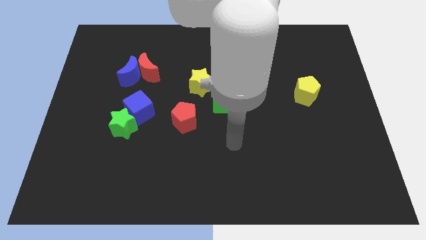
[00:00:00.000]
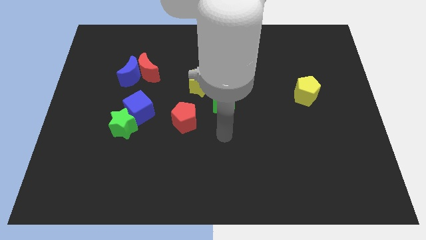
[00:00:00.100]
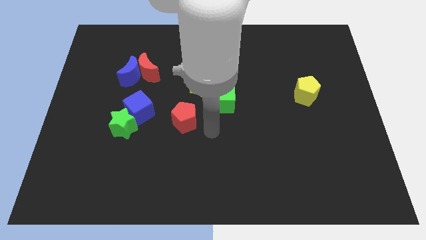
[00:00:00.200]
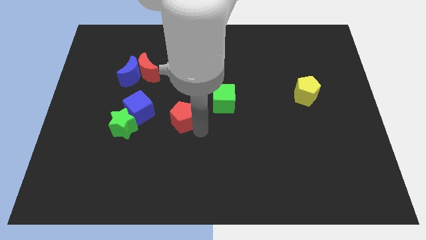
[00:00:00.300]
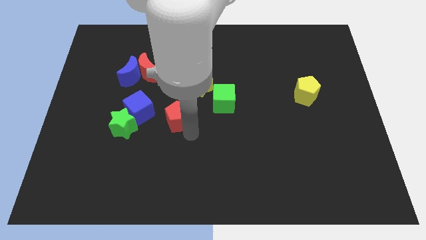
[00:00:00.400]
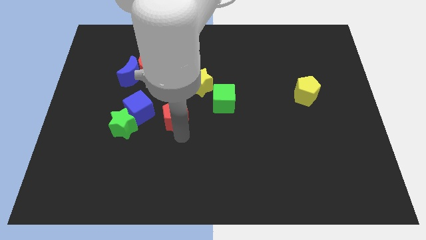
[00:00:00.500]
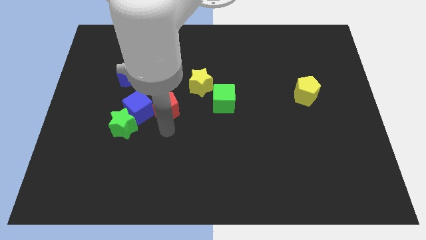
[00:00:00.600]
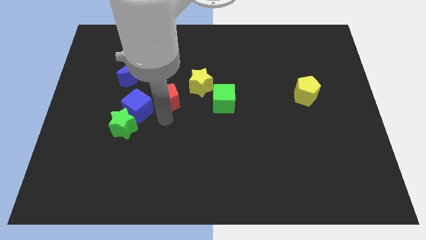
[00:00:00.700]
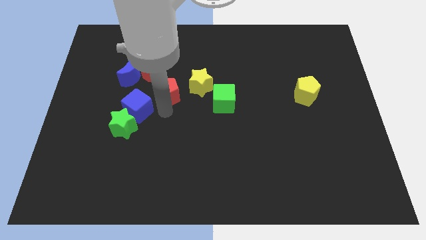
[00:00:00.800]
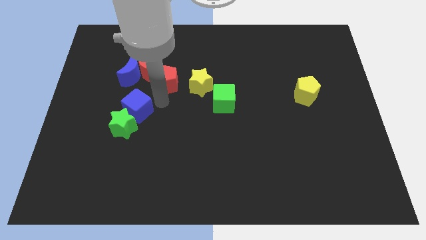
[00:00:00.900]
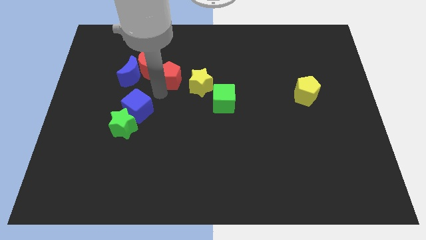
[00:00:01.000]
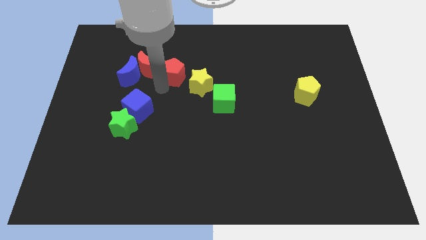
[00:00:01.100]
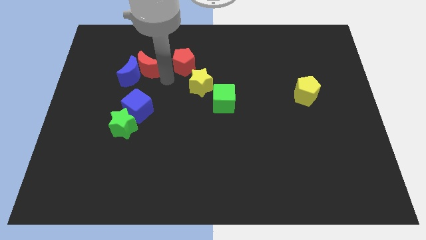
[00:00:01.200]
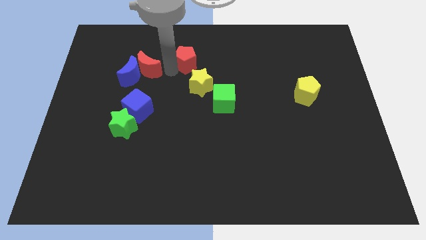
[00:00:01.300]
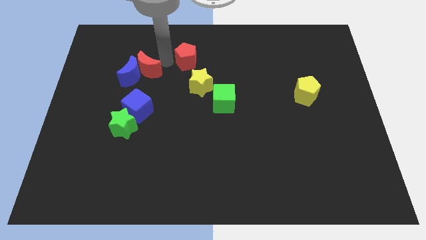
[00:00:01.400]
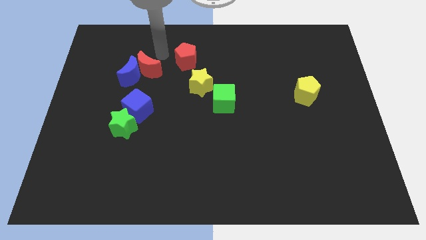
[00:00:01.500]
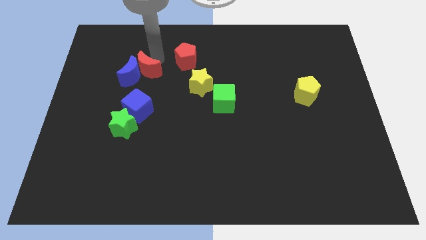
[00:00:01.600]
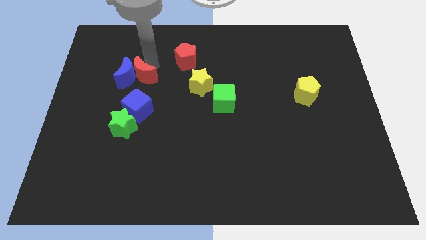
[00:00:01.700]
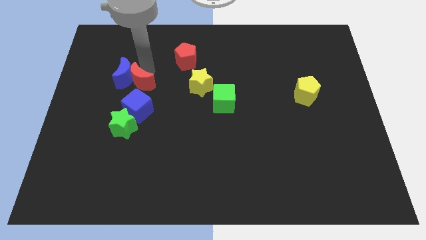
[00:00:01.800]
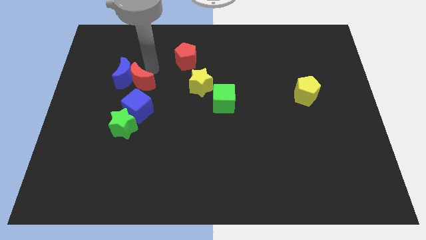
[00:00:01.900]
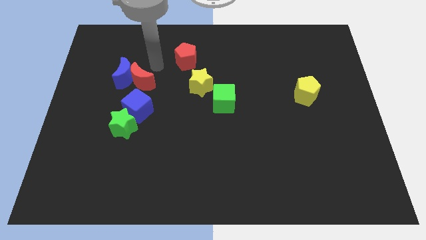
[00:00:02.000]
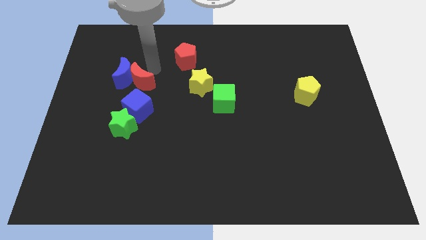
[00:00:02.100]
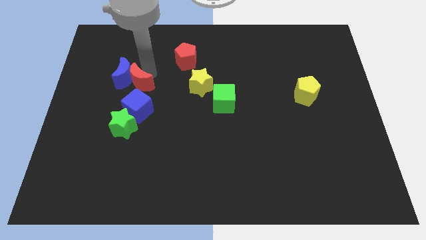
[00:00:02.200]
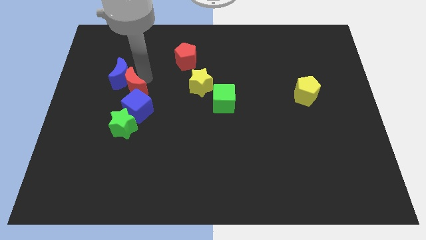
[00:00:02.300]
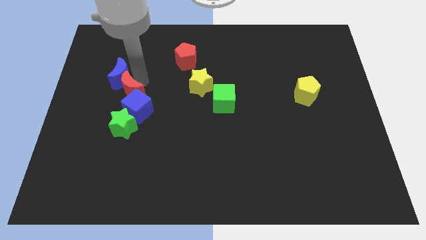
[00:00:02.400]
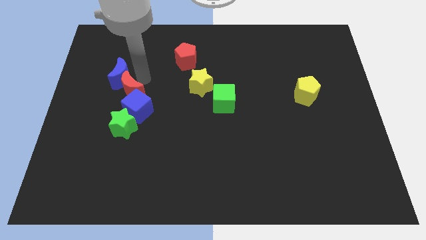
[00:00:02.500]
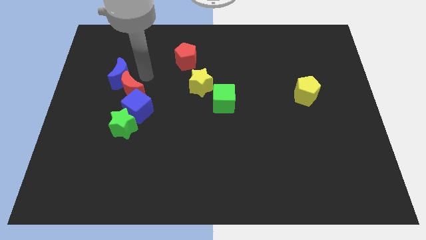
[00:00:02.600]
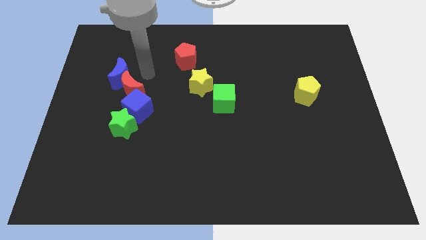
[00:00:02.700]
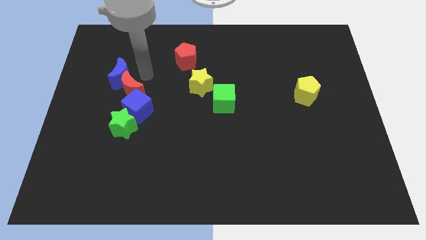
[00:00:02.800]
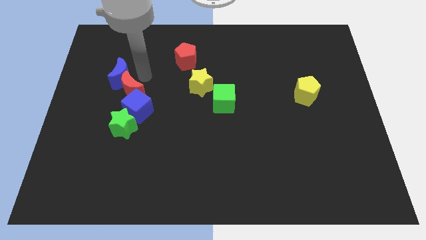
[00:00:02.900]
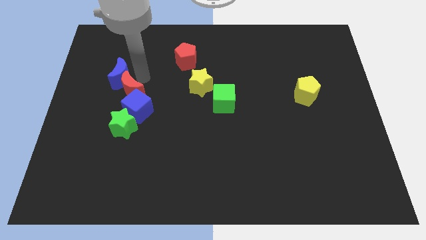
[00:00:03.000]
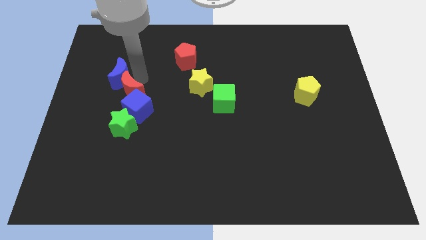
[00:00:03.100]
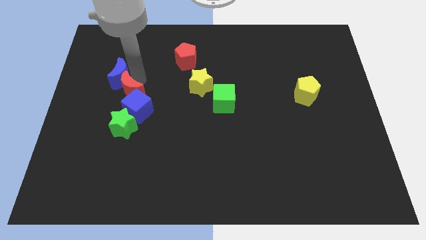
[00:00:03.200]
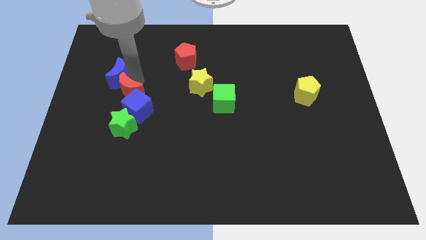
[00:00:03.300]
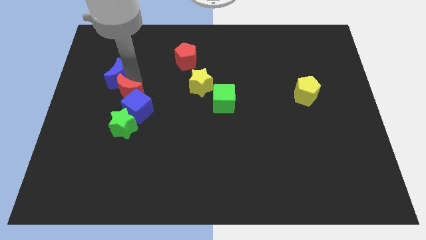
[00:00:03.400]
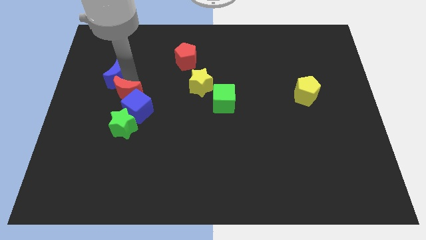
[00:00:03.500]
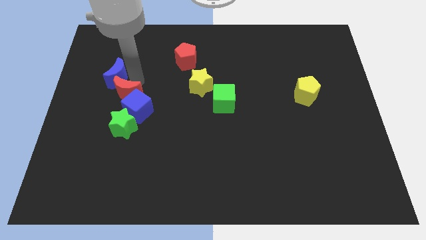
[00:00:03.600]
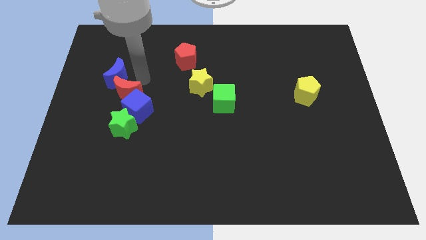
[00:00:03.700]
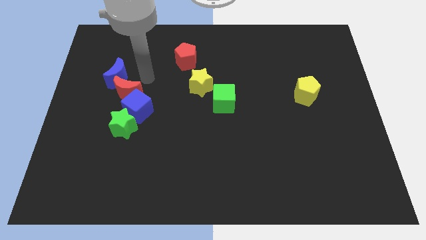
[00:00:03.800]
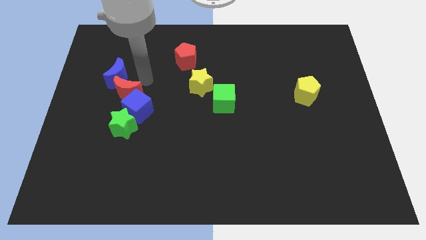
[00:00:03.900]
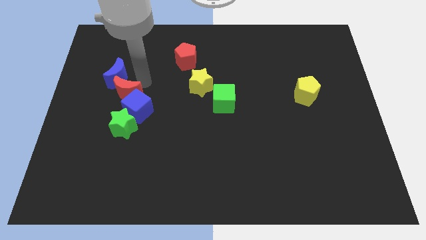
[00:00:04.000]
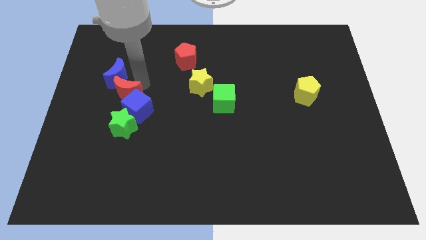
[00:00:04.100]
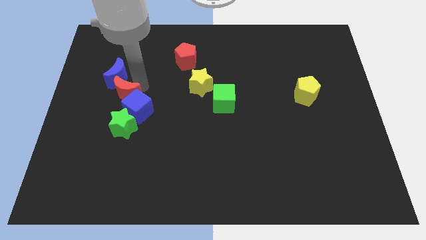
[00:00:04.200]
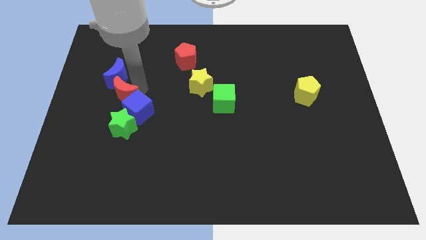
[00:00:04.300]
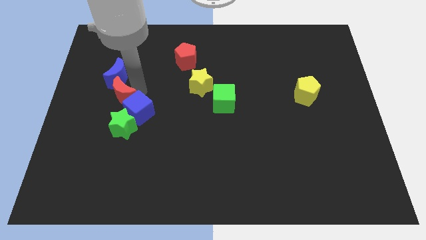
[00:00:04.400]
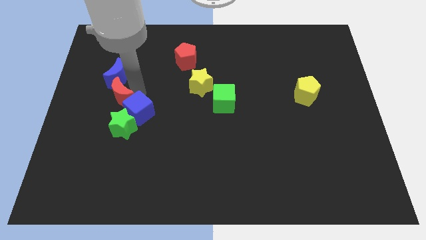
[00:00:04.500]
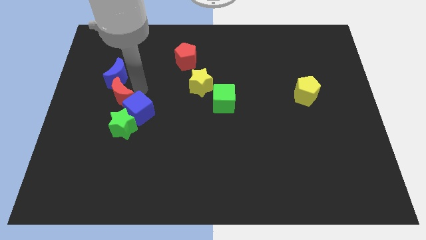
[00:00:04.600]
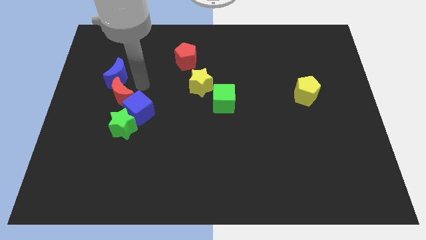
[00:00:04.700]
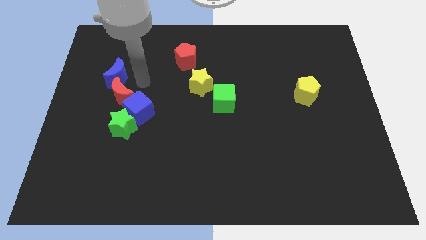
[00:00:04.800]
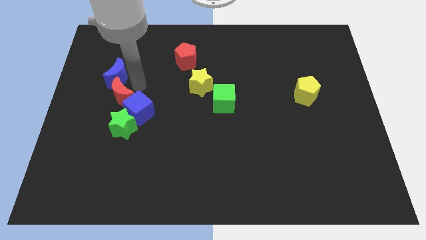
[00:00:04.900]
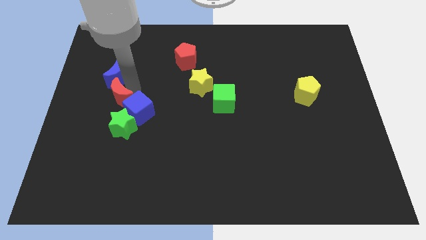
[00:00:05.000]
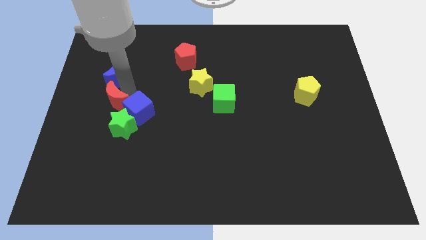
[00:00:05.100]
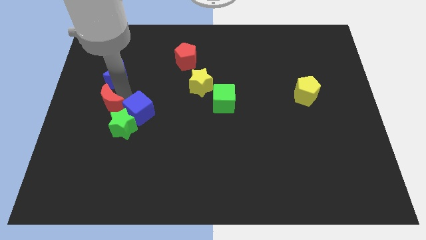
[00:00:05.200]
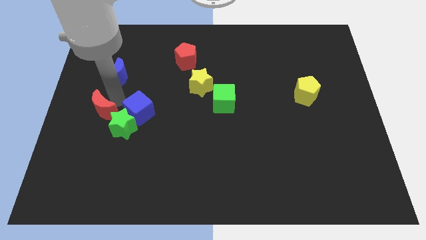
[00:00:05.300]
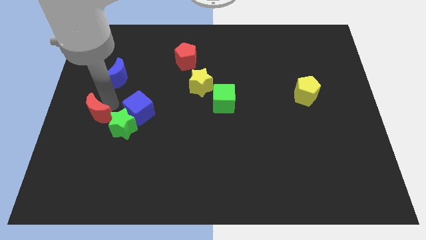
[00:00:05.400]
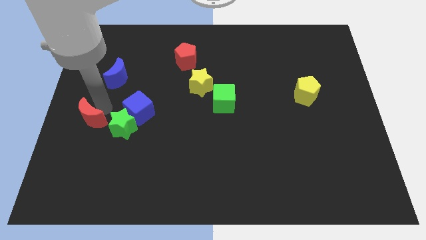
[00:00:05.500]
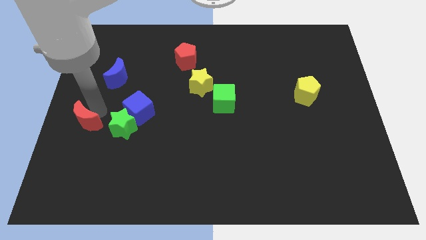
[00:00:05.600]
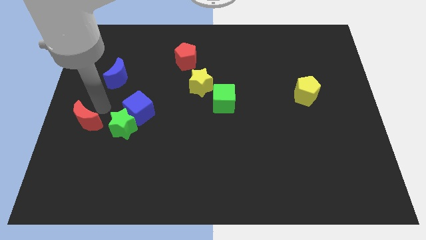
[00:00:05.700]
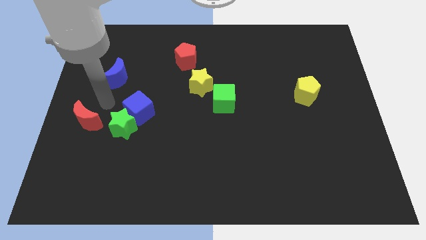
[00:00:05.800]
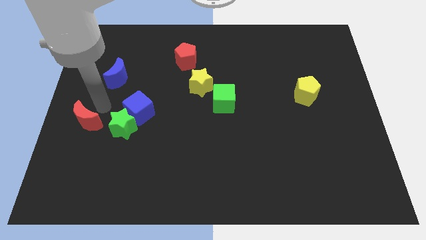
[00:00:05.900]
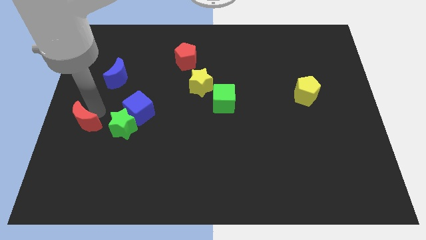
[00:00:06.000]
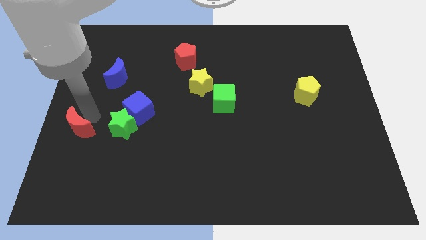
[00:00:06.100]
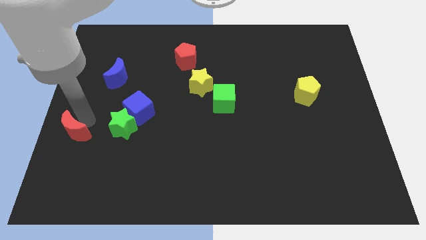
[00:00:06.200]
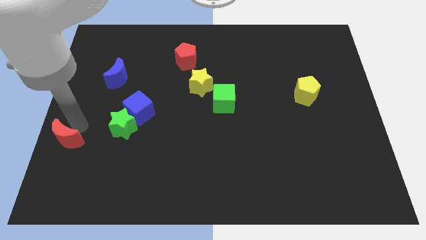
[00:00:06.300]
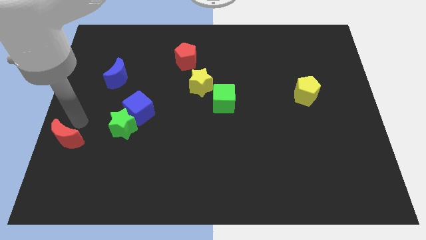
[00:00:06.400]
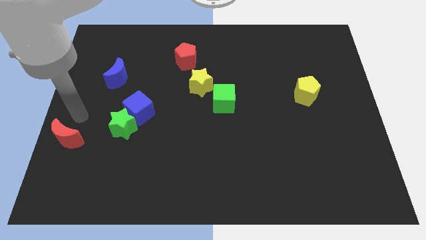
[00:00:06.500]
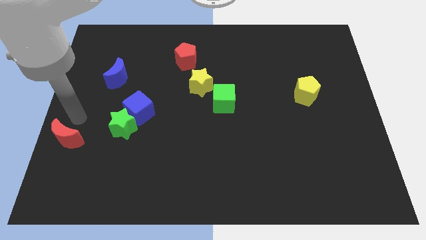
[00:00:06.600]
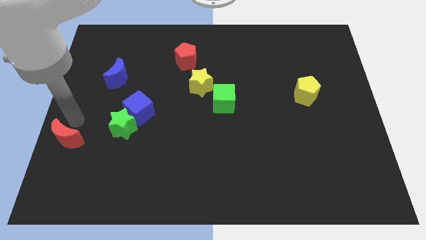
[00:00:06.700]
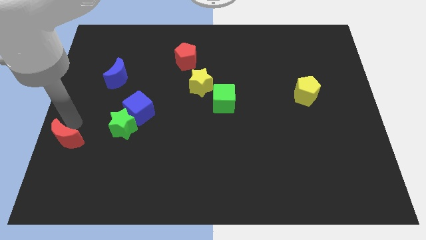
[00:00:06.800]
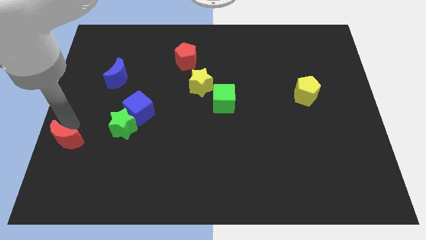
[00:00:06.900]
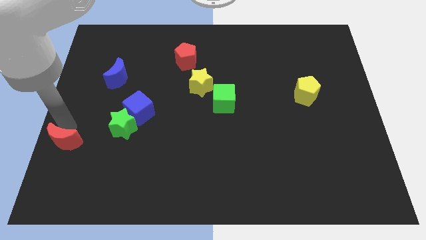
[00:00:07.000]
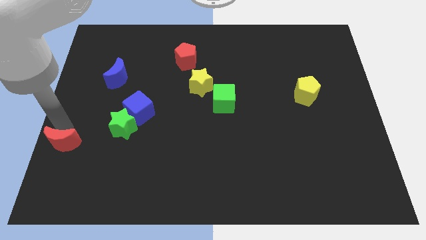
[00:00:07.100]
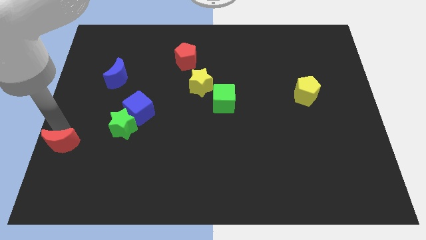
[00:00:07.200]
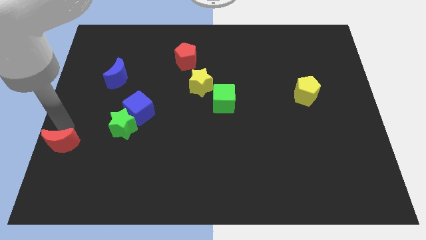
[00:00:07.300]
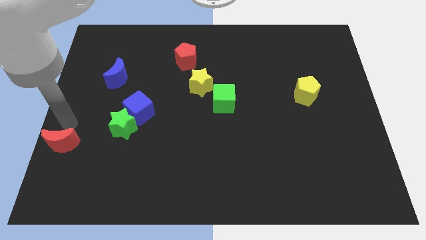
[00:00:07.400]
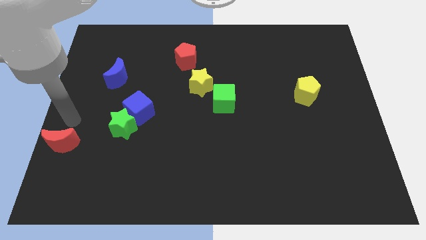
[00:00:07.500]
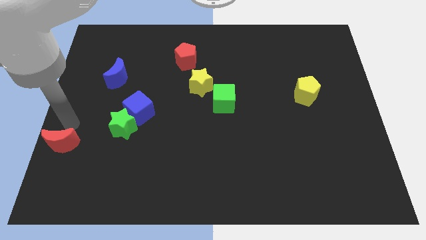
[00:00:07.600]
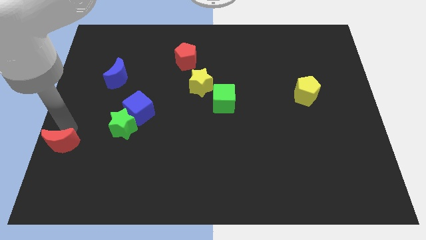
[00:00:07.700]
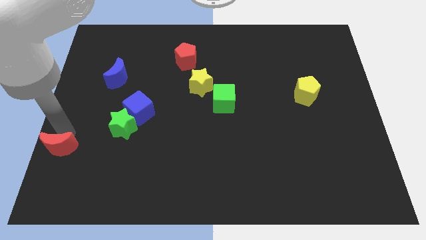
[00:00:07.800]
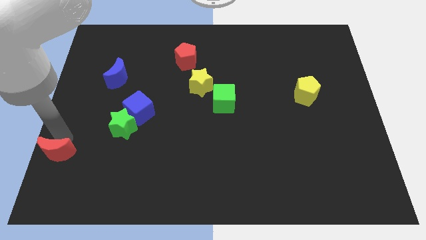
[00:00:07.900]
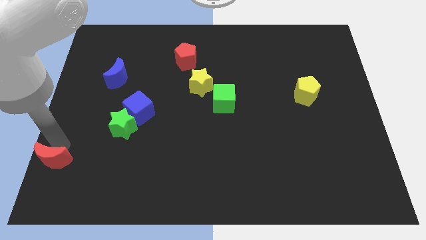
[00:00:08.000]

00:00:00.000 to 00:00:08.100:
push the red moon to the bottom left
